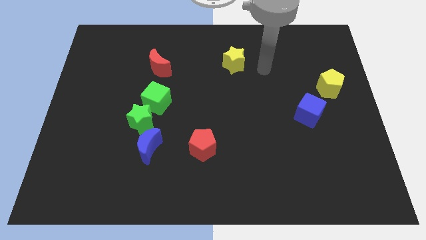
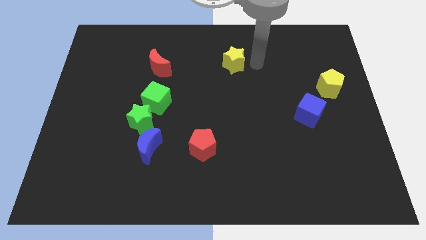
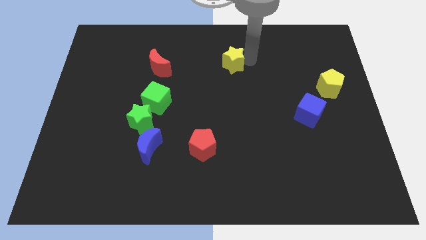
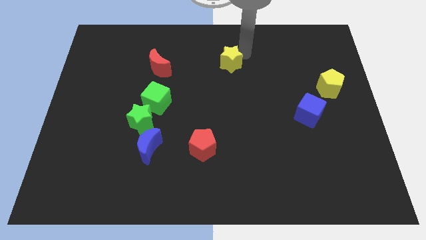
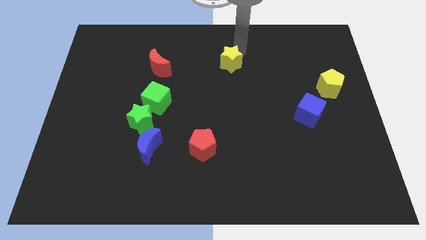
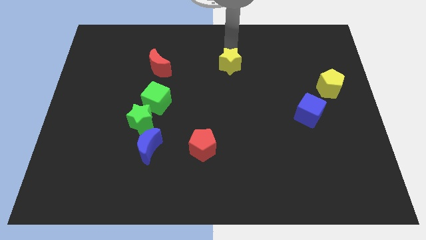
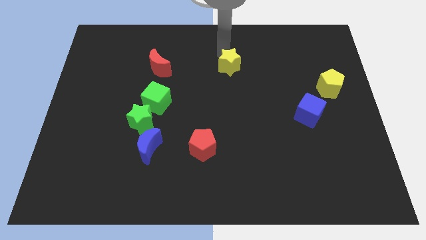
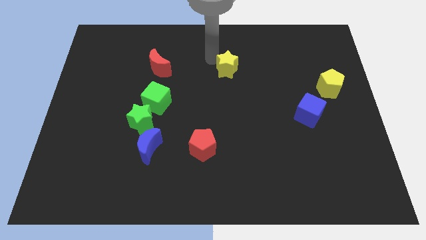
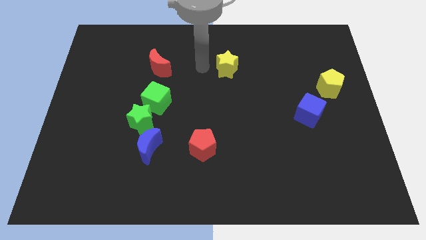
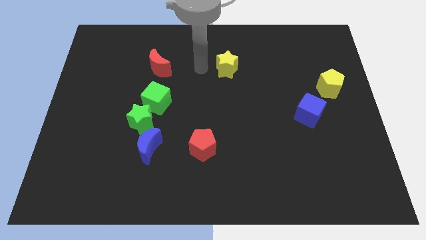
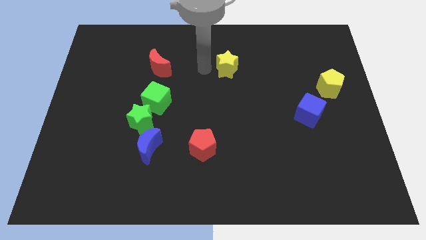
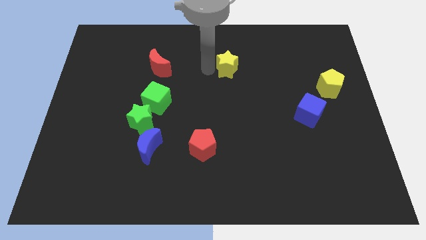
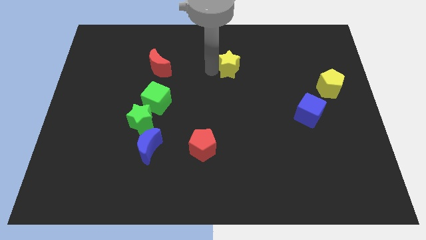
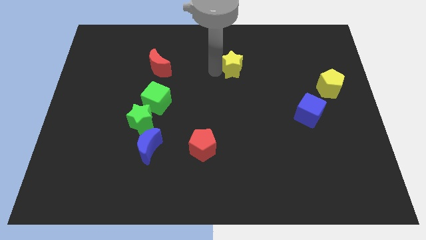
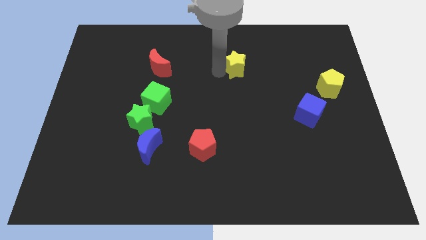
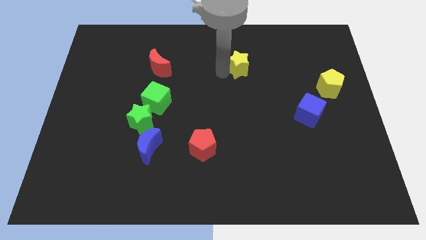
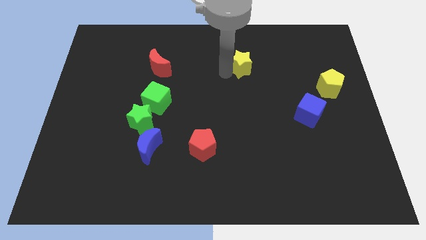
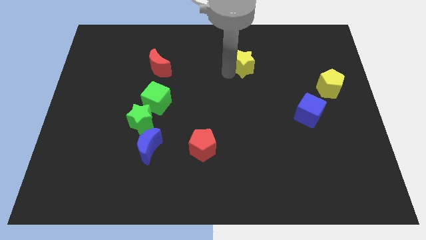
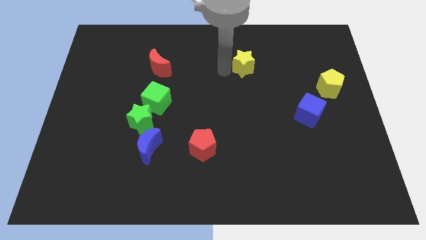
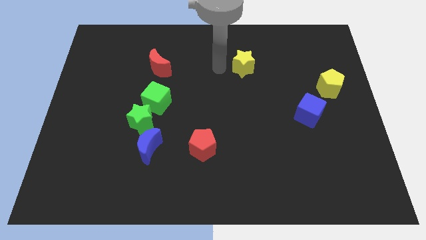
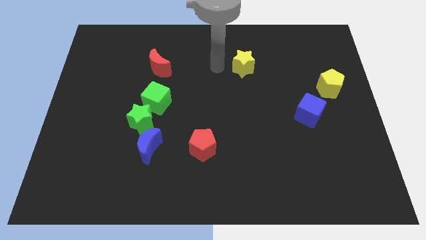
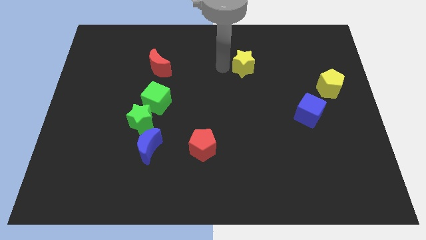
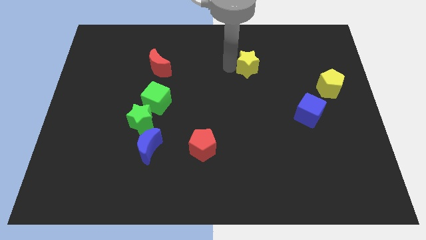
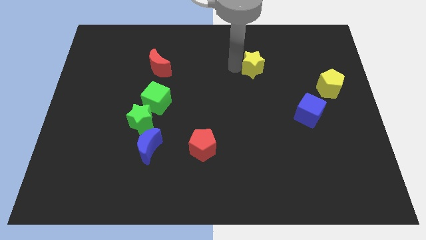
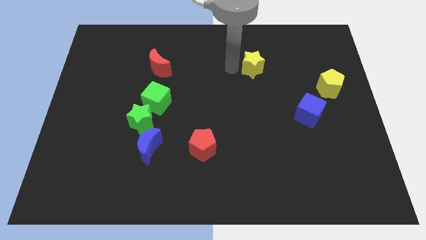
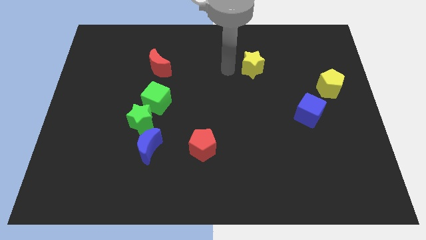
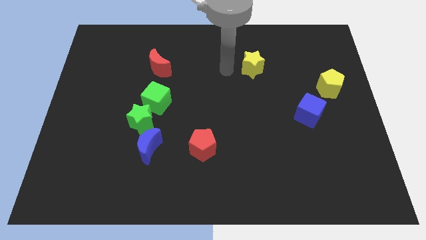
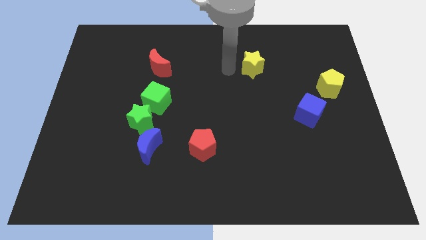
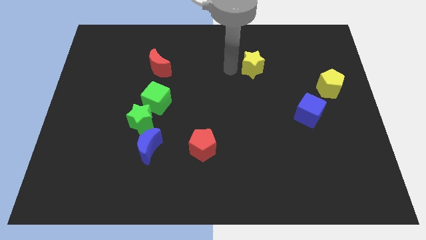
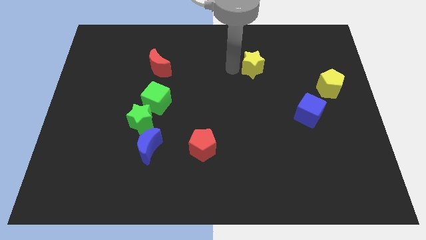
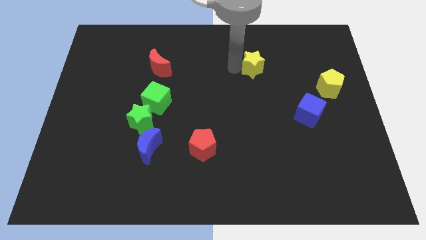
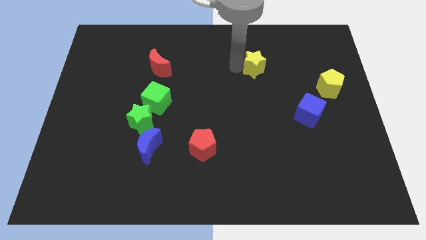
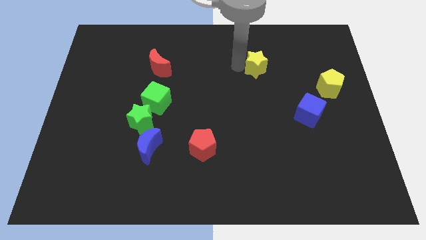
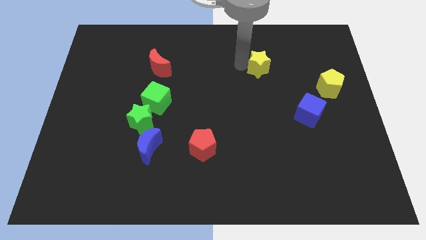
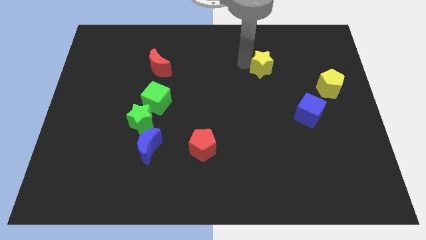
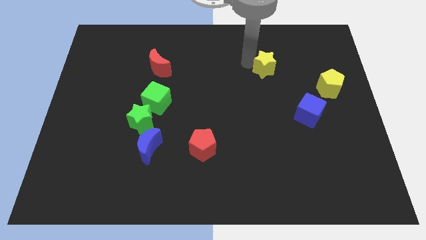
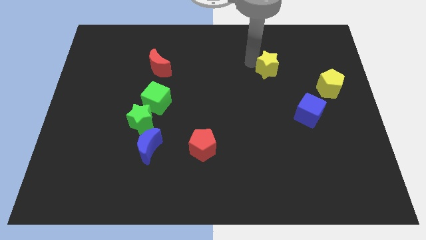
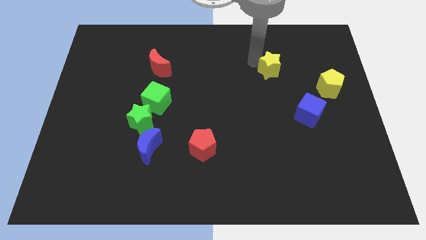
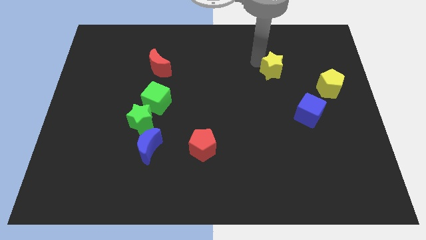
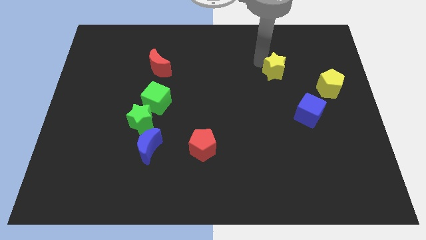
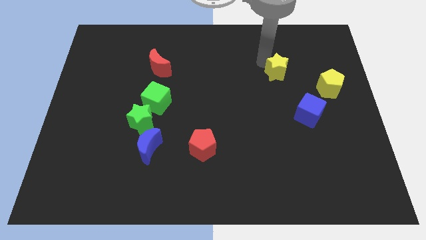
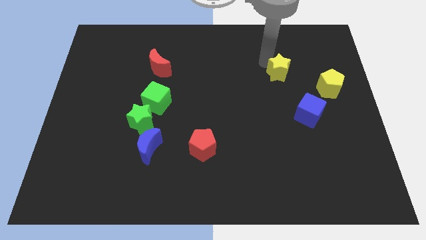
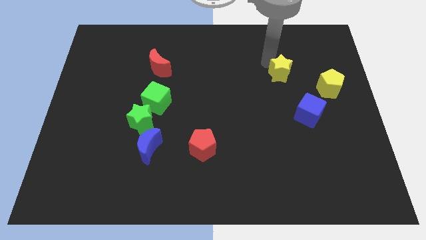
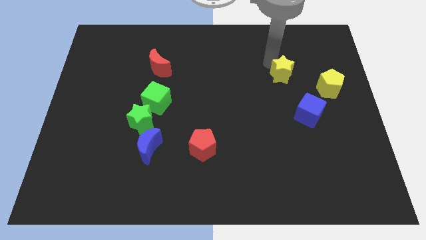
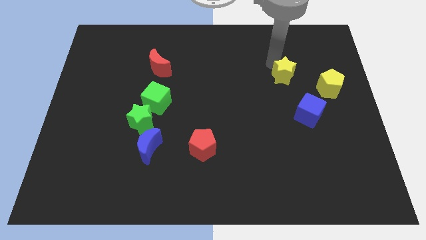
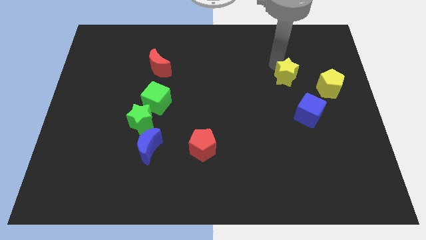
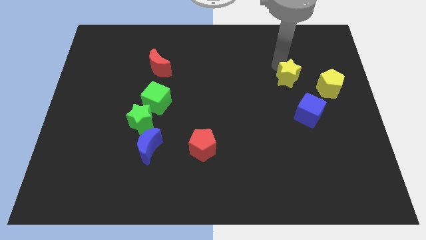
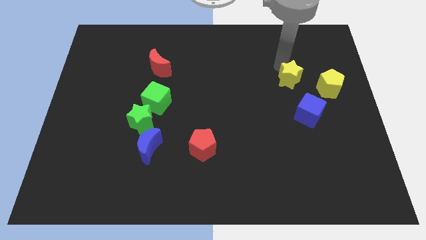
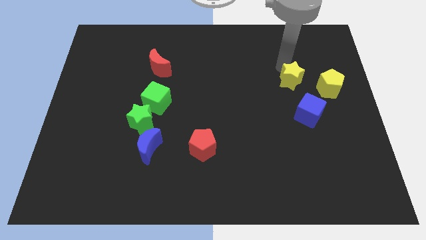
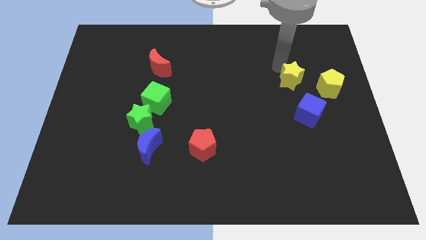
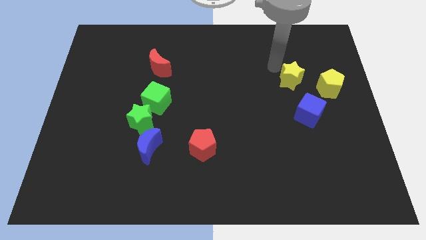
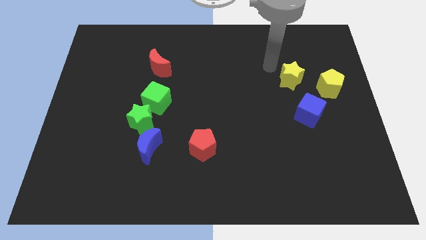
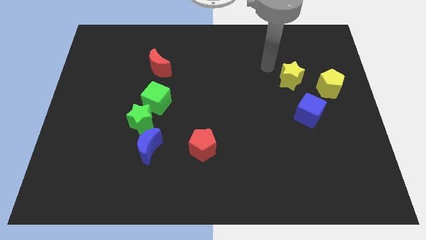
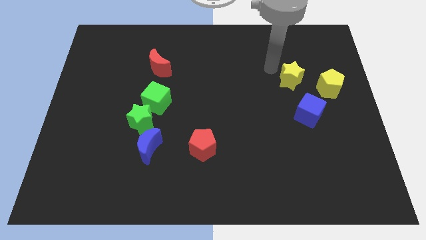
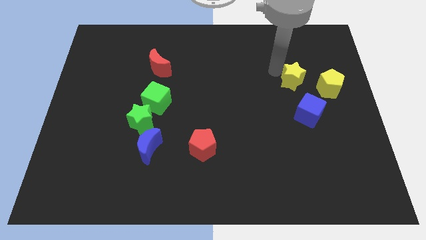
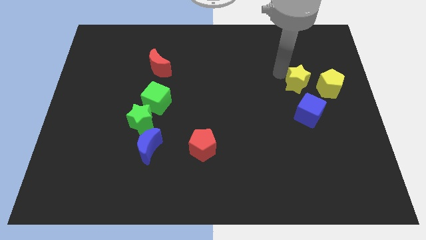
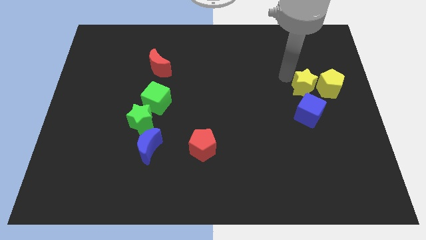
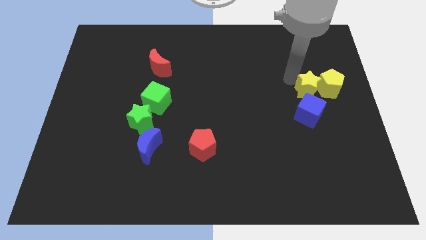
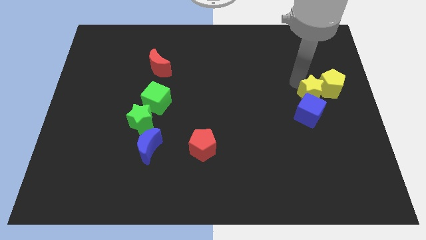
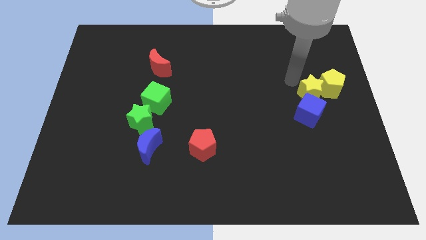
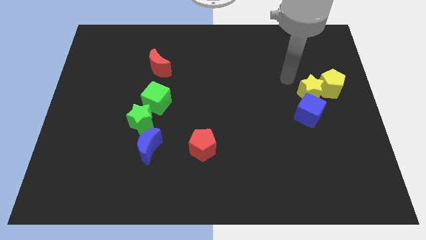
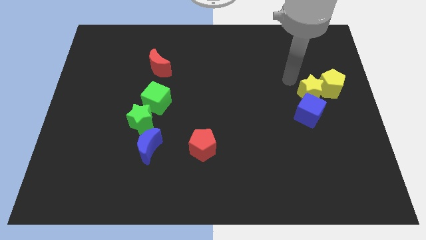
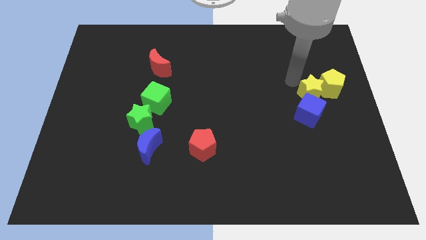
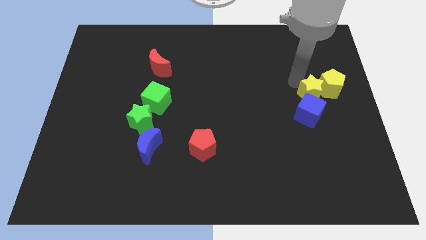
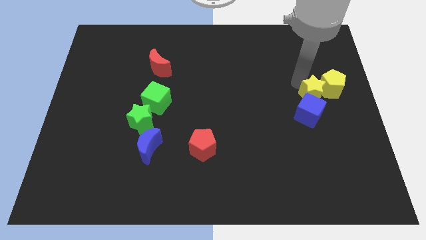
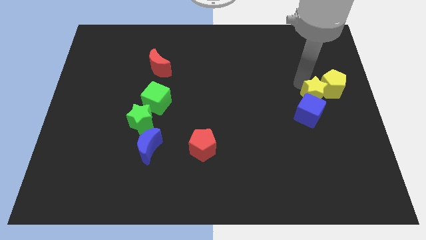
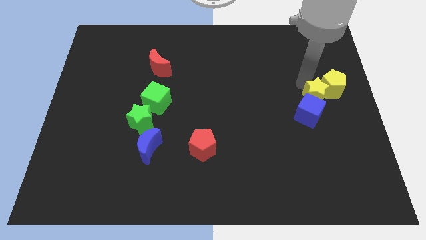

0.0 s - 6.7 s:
slide the yellow star down and then to the right

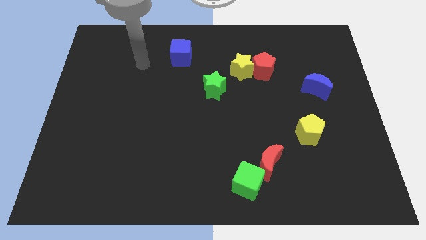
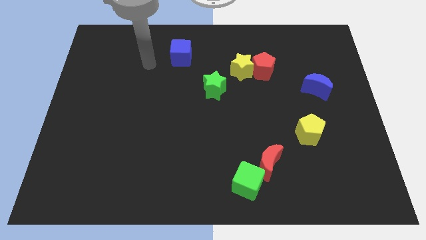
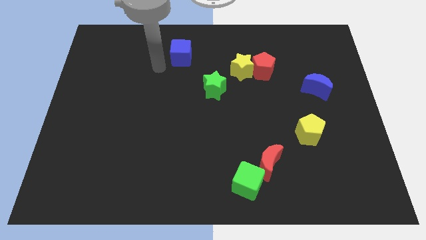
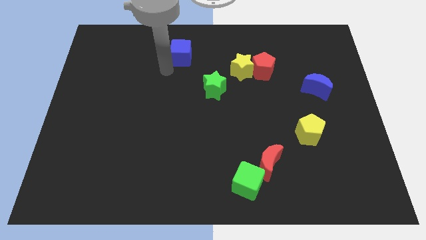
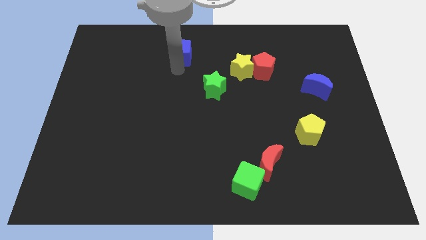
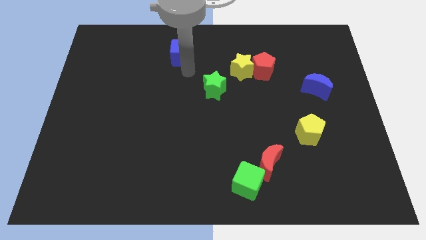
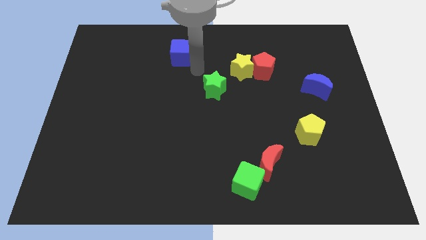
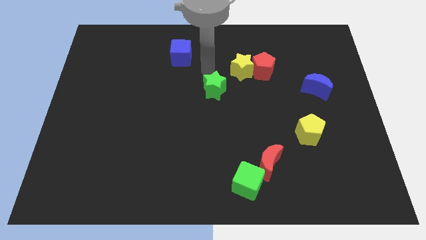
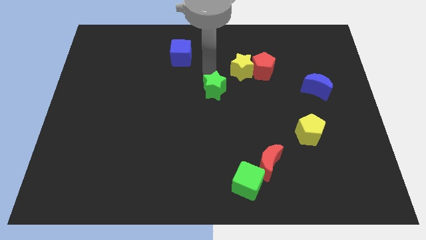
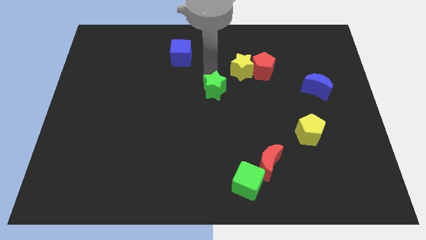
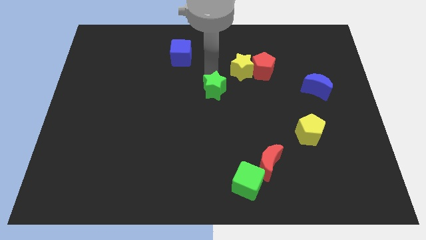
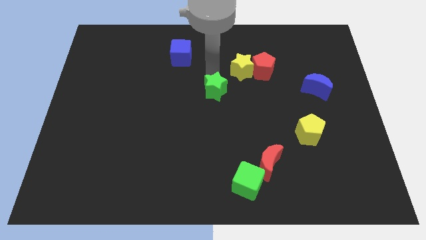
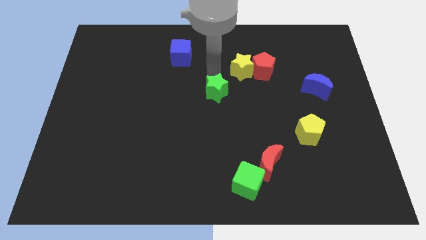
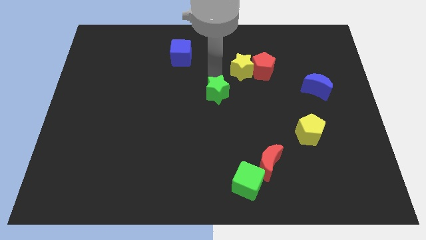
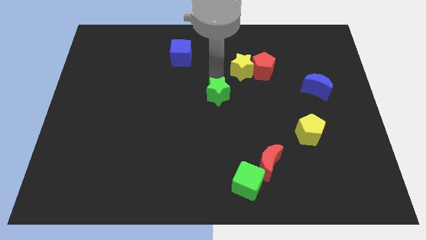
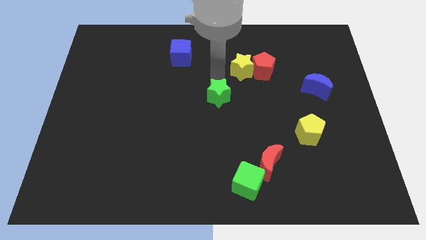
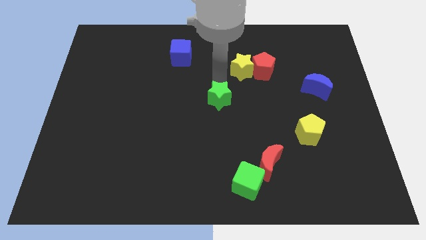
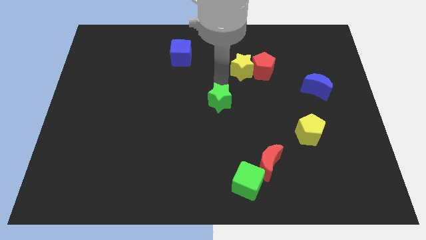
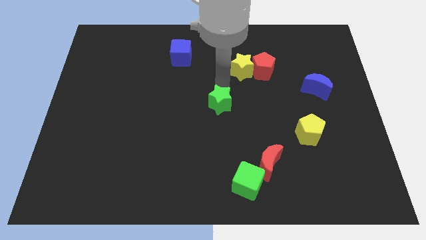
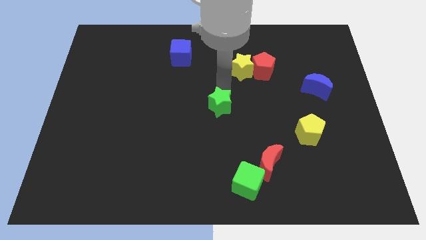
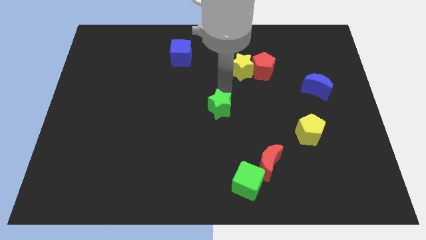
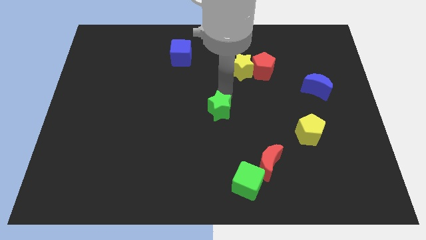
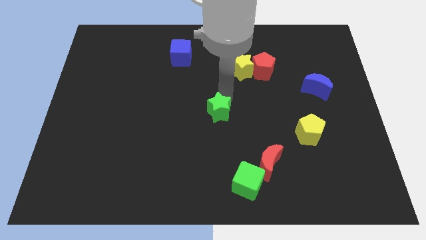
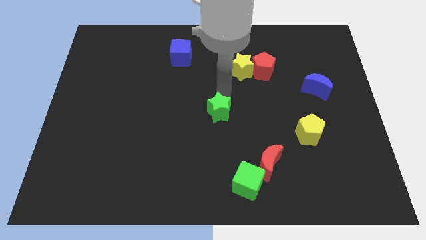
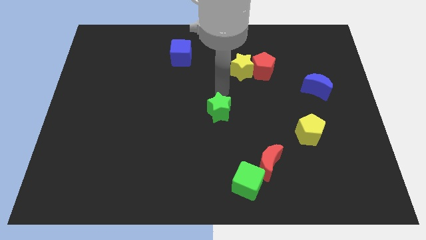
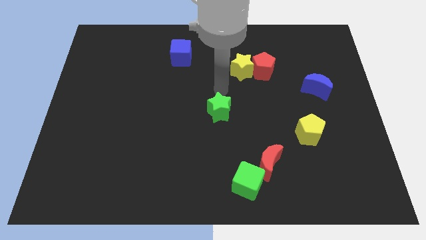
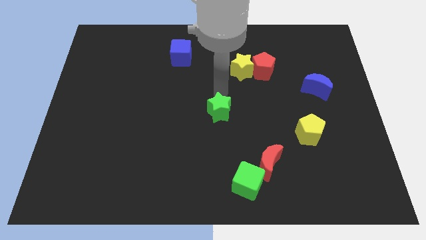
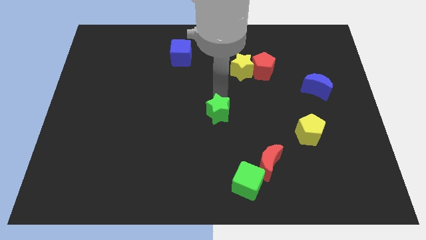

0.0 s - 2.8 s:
push the green star downwards slightly
